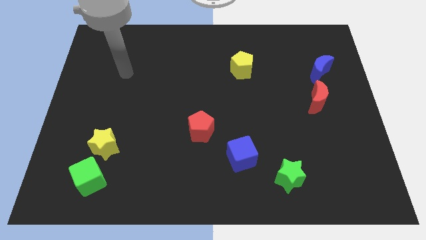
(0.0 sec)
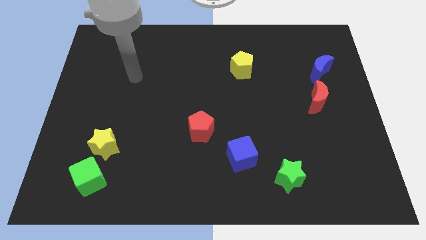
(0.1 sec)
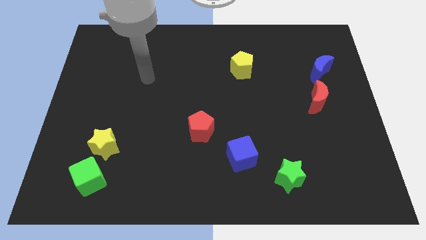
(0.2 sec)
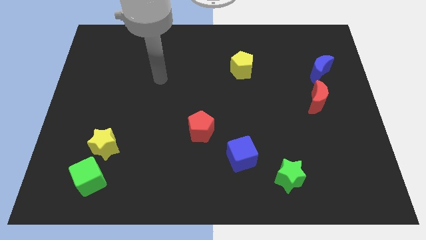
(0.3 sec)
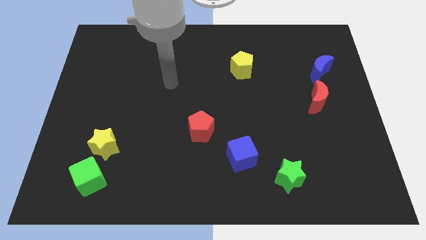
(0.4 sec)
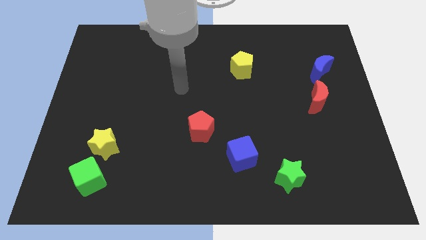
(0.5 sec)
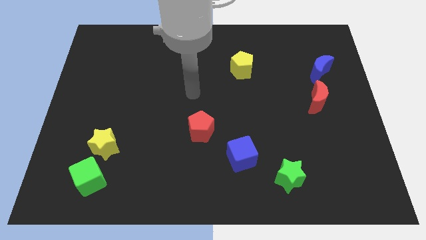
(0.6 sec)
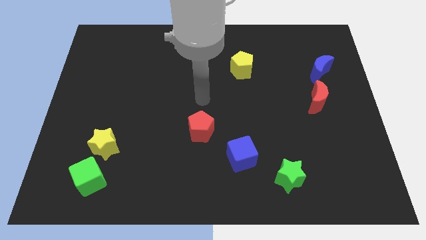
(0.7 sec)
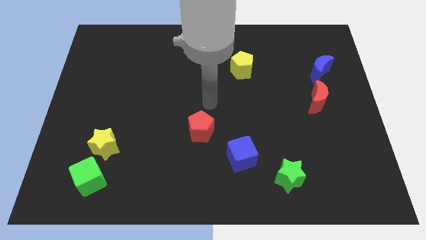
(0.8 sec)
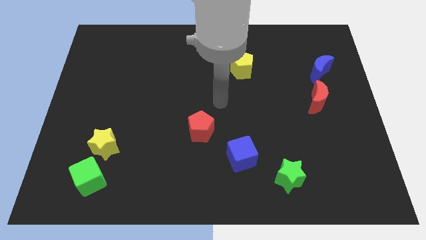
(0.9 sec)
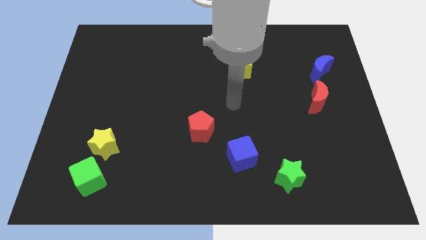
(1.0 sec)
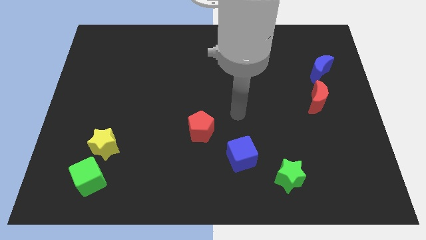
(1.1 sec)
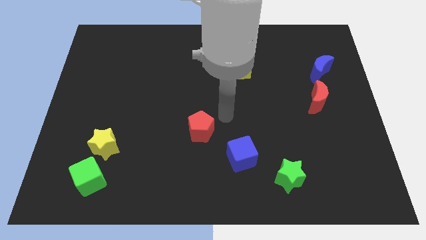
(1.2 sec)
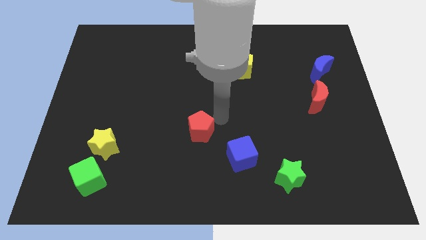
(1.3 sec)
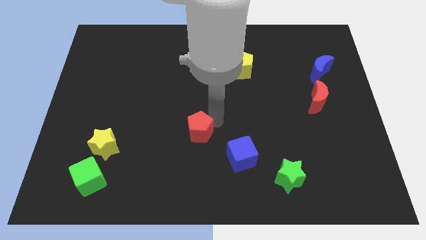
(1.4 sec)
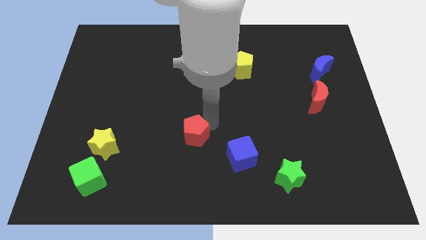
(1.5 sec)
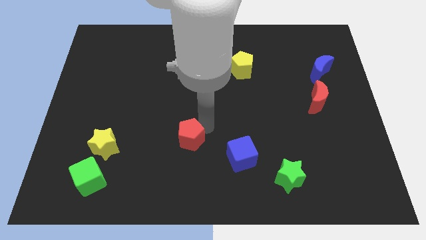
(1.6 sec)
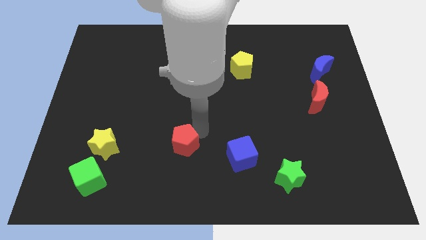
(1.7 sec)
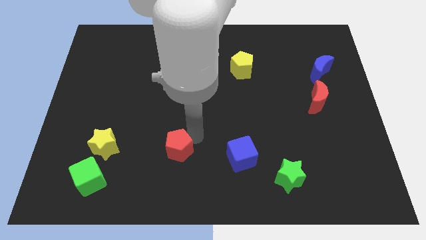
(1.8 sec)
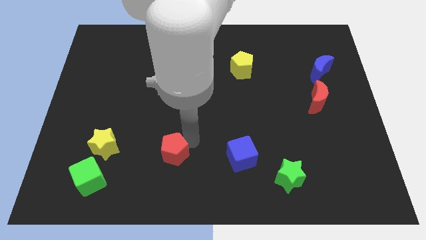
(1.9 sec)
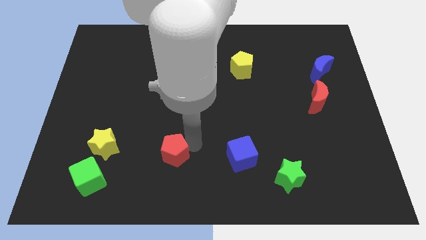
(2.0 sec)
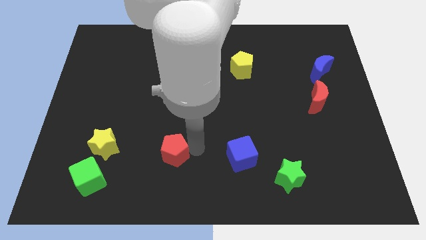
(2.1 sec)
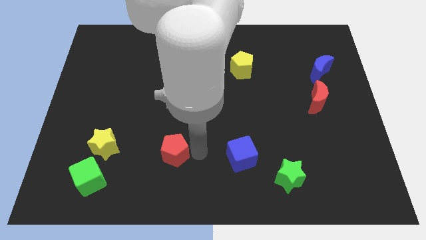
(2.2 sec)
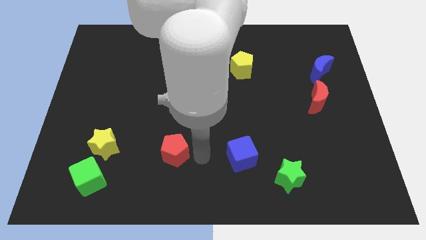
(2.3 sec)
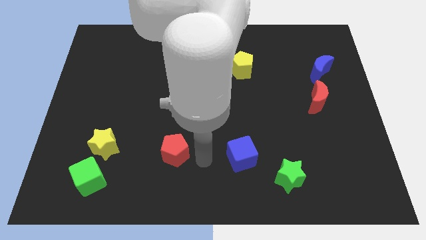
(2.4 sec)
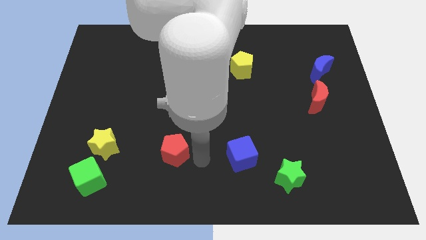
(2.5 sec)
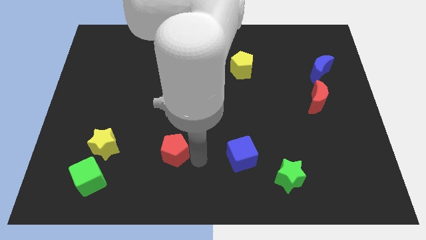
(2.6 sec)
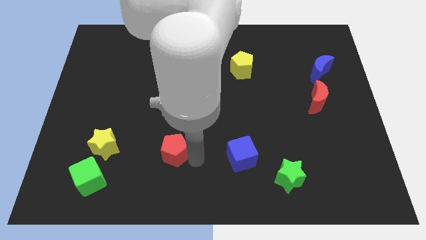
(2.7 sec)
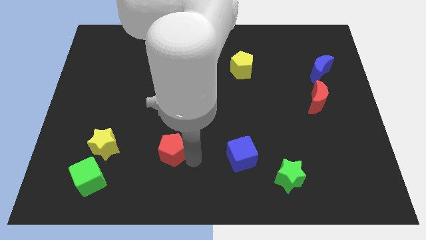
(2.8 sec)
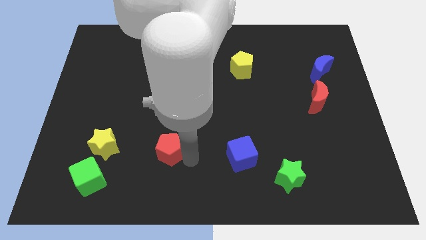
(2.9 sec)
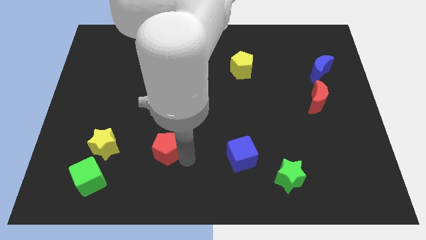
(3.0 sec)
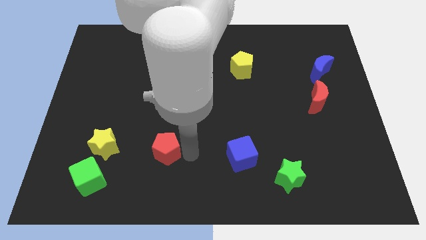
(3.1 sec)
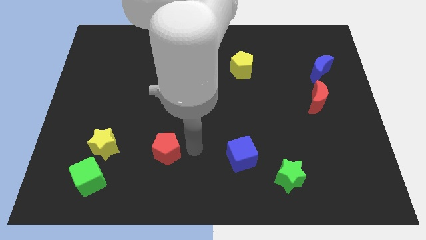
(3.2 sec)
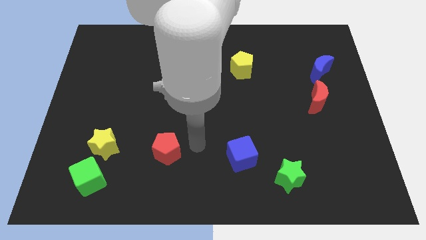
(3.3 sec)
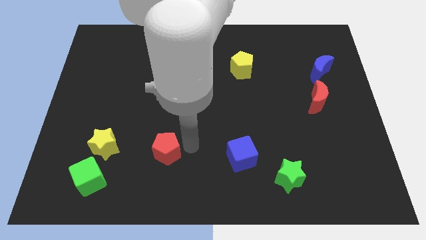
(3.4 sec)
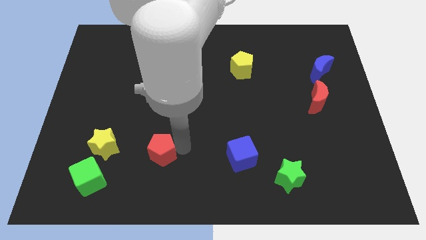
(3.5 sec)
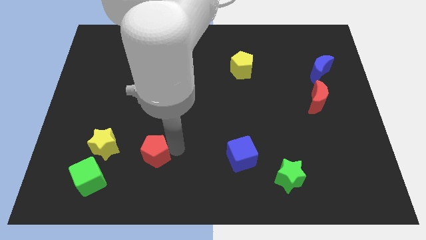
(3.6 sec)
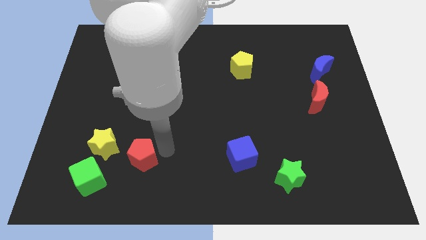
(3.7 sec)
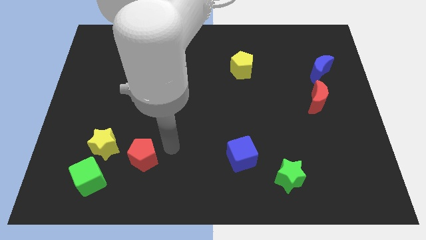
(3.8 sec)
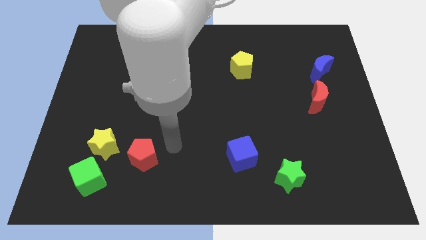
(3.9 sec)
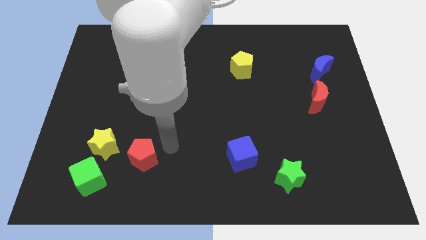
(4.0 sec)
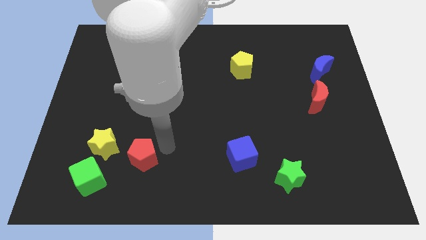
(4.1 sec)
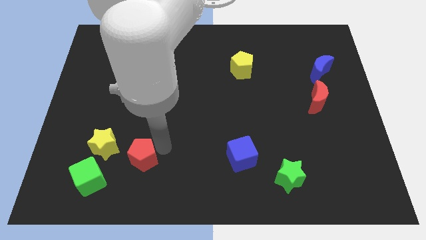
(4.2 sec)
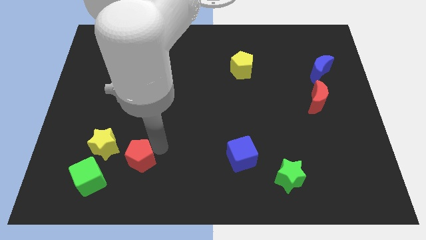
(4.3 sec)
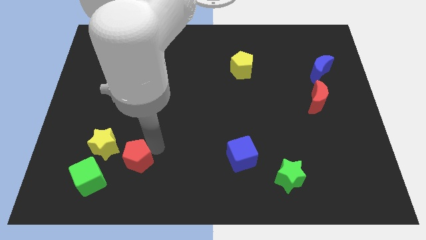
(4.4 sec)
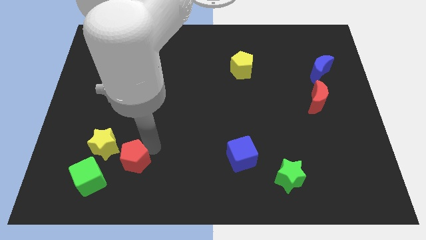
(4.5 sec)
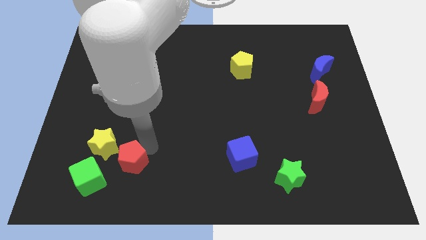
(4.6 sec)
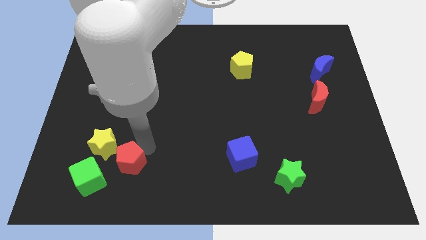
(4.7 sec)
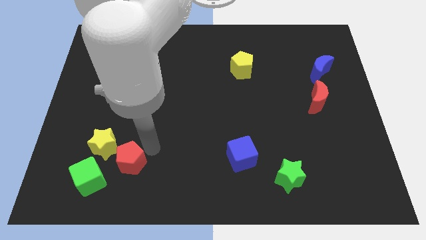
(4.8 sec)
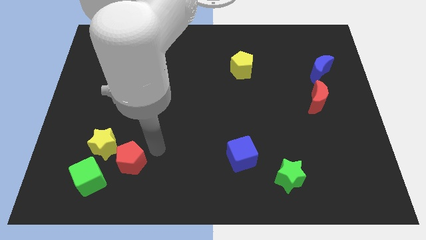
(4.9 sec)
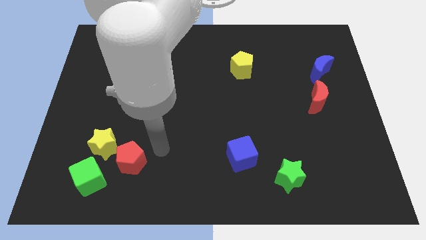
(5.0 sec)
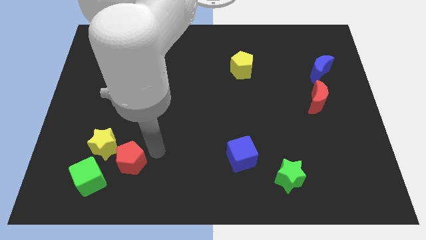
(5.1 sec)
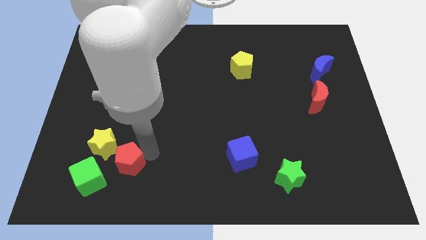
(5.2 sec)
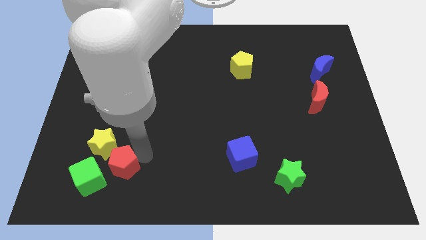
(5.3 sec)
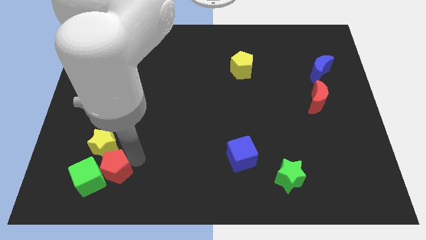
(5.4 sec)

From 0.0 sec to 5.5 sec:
put the red pentagon to the green cube

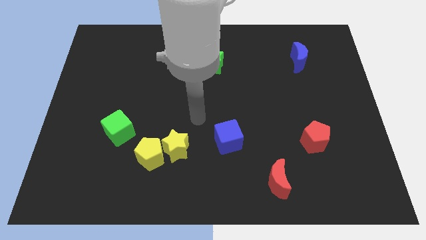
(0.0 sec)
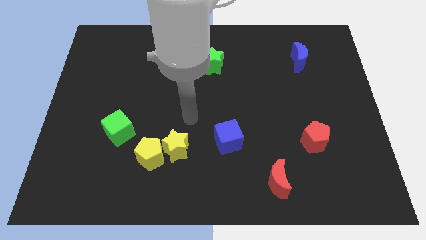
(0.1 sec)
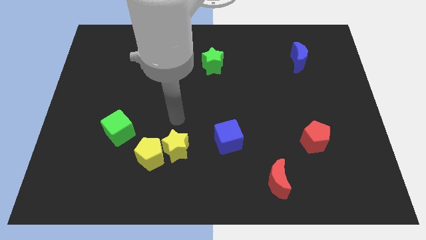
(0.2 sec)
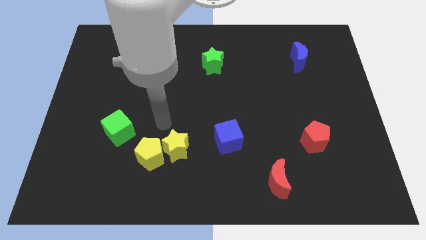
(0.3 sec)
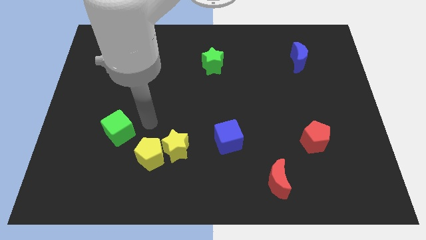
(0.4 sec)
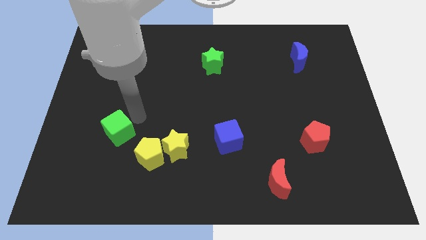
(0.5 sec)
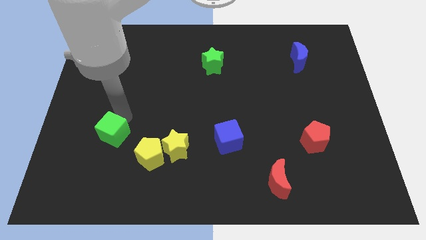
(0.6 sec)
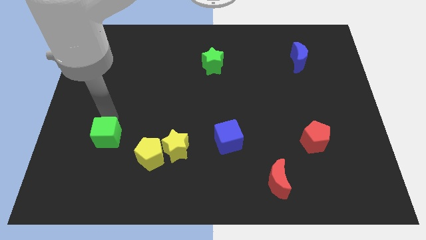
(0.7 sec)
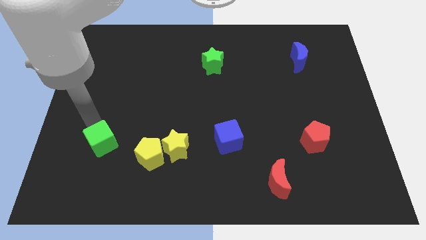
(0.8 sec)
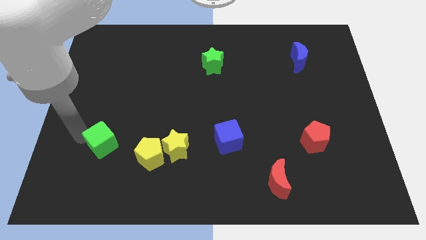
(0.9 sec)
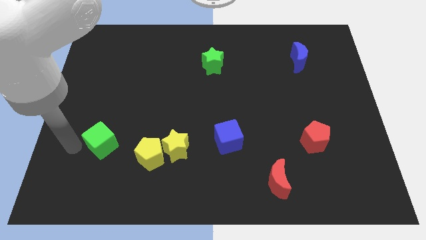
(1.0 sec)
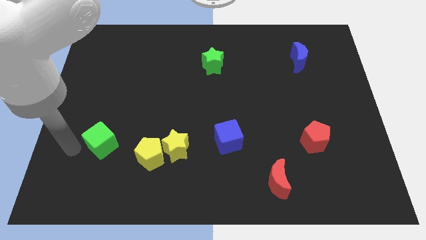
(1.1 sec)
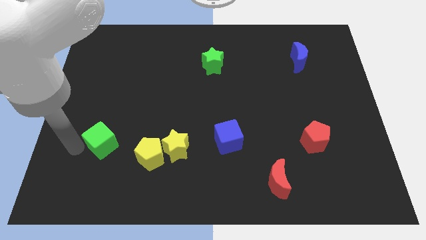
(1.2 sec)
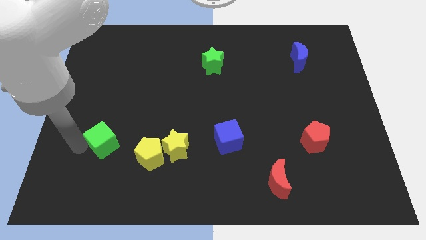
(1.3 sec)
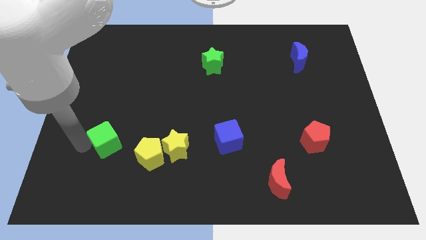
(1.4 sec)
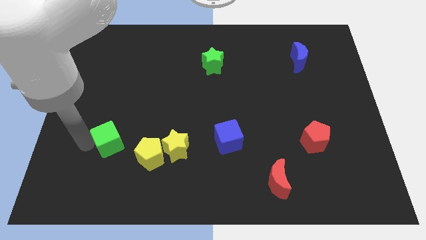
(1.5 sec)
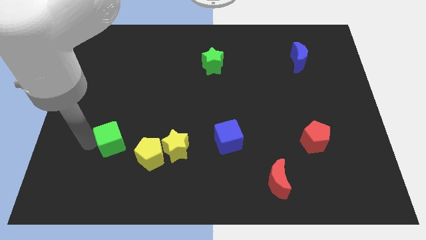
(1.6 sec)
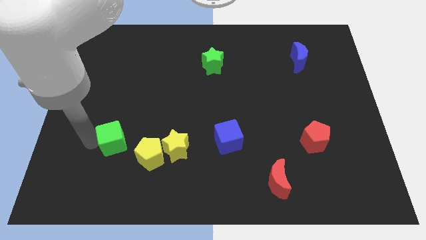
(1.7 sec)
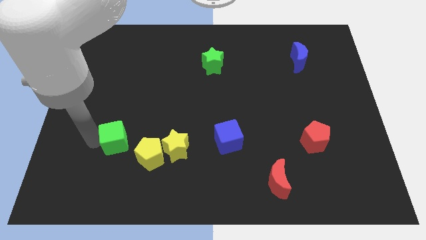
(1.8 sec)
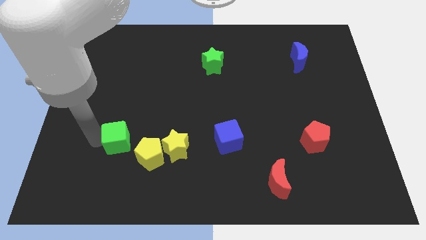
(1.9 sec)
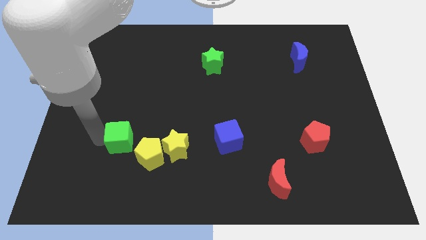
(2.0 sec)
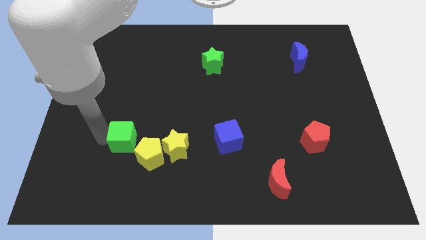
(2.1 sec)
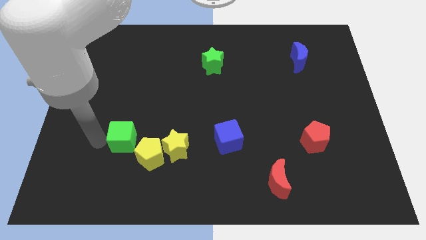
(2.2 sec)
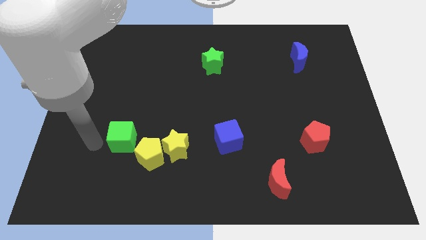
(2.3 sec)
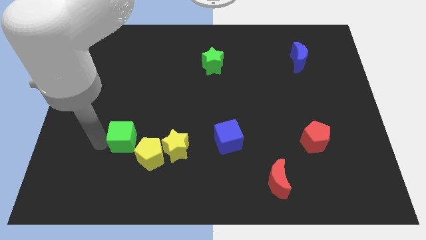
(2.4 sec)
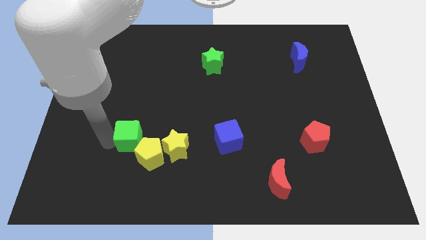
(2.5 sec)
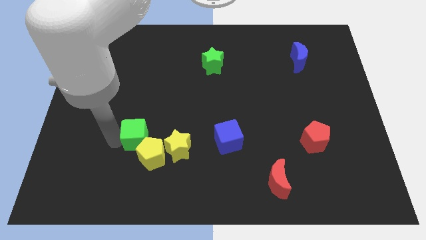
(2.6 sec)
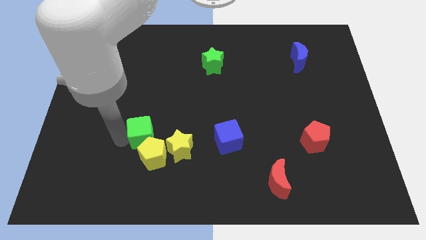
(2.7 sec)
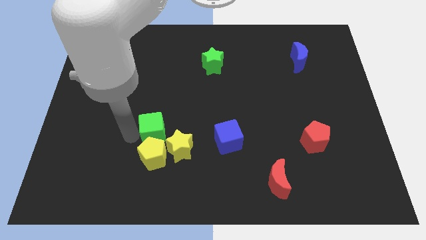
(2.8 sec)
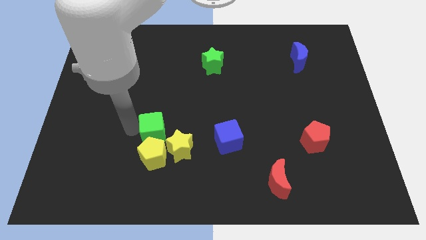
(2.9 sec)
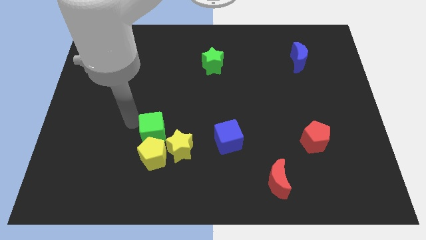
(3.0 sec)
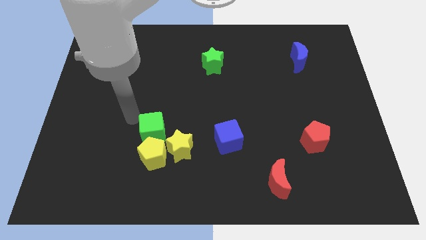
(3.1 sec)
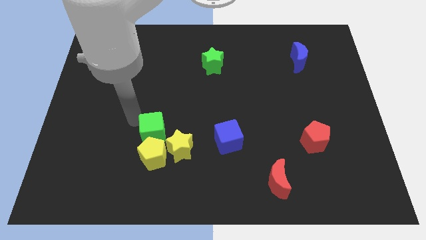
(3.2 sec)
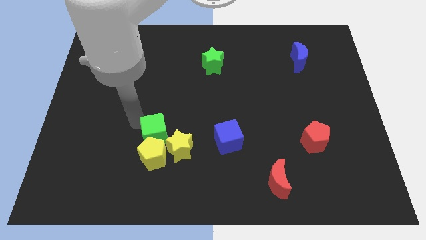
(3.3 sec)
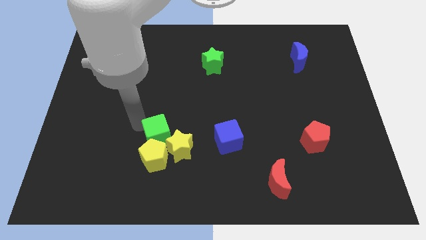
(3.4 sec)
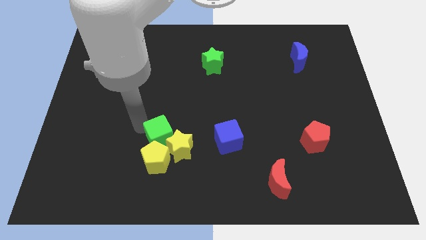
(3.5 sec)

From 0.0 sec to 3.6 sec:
move the green cube to the yellow star
